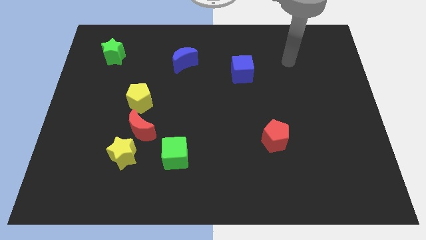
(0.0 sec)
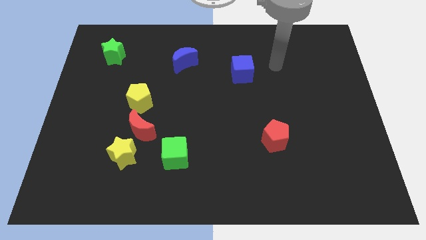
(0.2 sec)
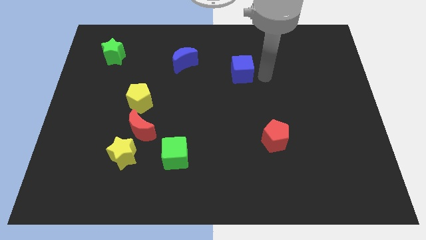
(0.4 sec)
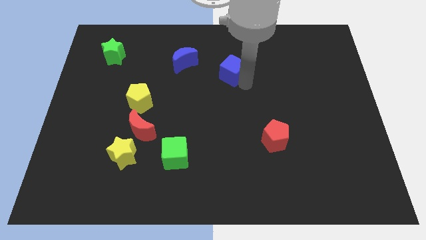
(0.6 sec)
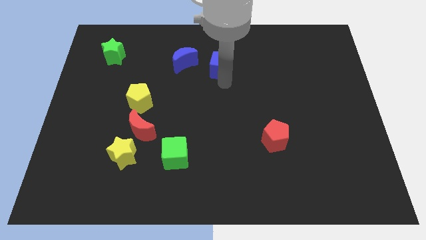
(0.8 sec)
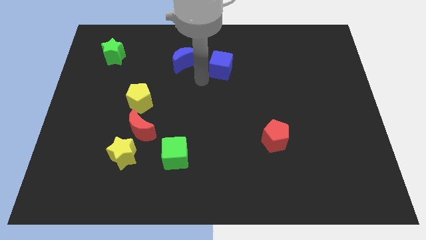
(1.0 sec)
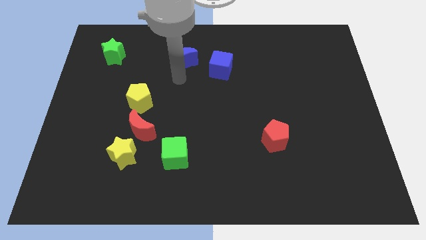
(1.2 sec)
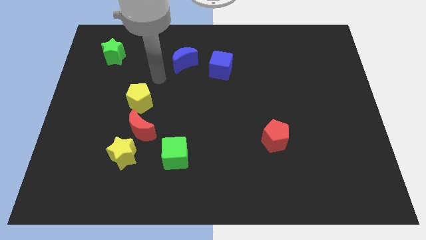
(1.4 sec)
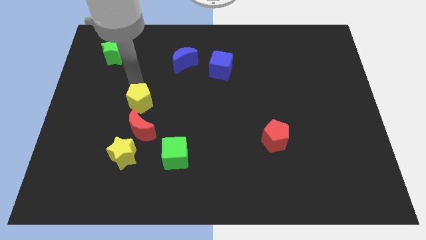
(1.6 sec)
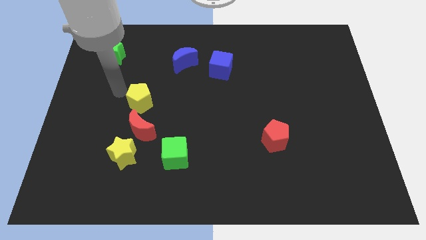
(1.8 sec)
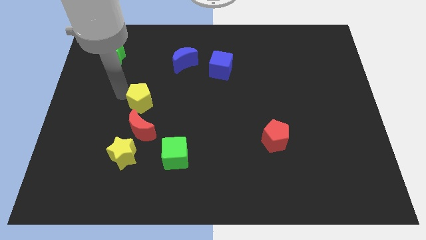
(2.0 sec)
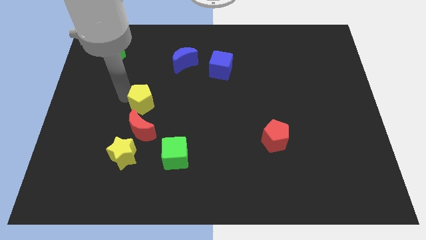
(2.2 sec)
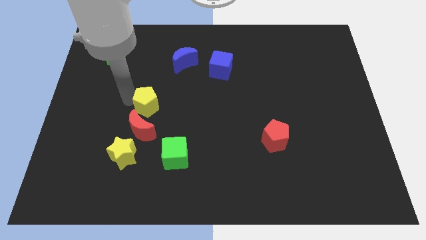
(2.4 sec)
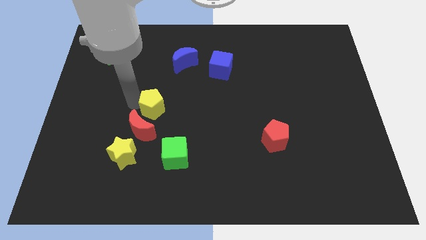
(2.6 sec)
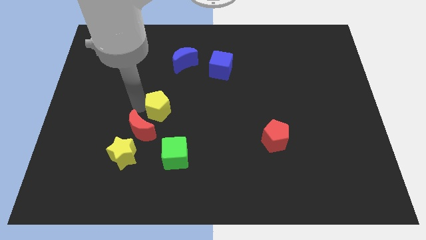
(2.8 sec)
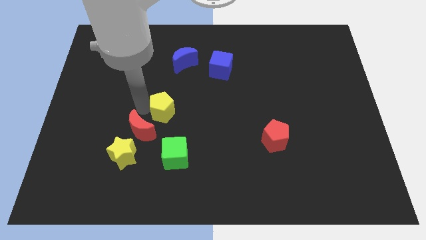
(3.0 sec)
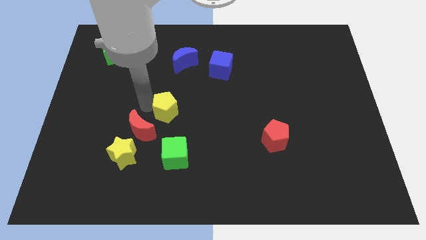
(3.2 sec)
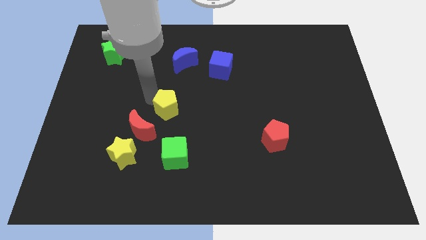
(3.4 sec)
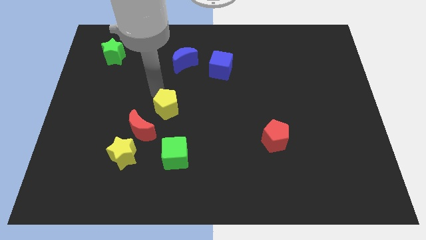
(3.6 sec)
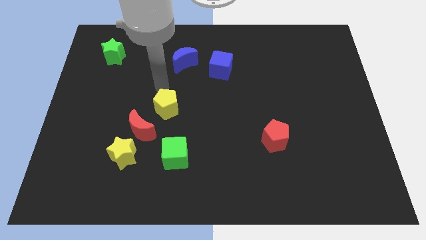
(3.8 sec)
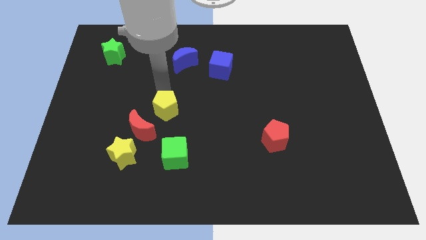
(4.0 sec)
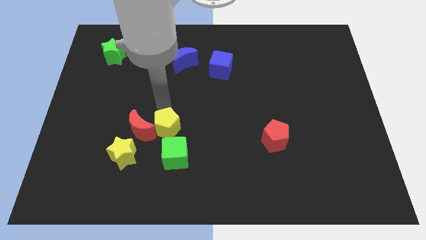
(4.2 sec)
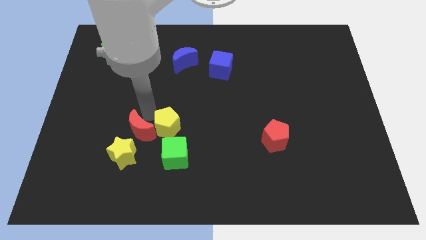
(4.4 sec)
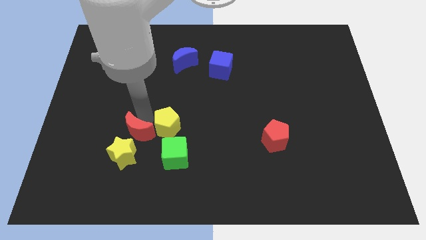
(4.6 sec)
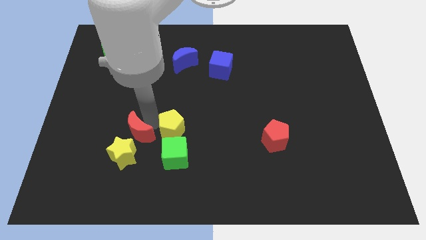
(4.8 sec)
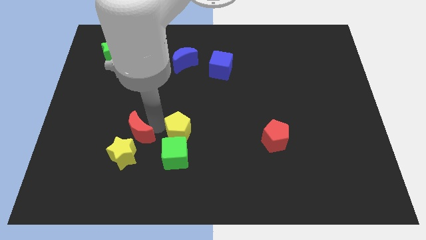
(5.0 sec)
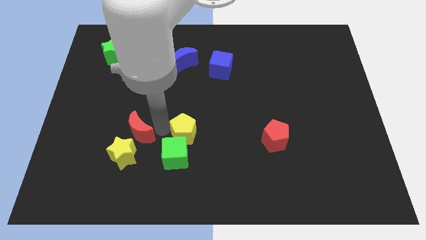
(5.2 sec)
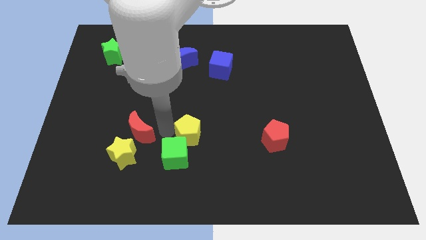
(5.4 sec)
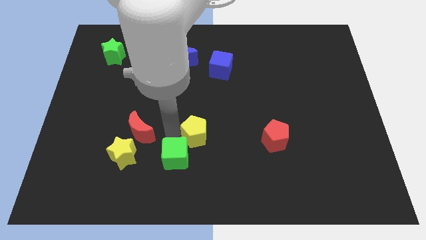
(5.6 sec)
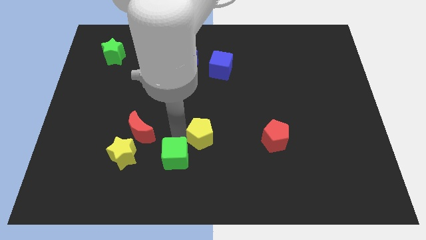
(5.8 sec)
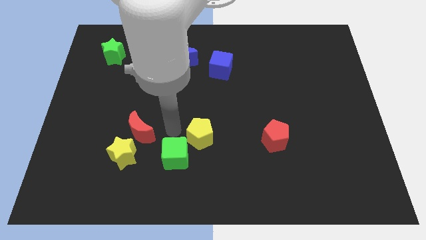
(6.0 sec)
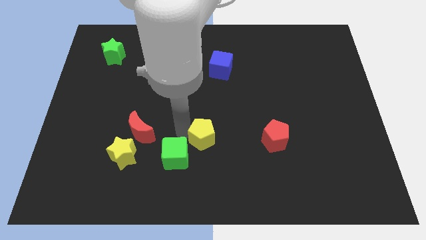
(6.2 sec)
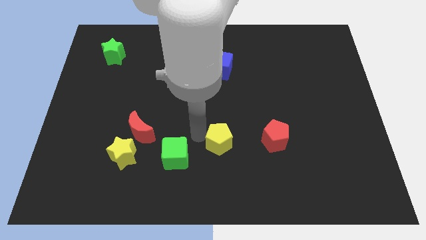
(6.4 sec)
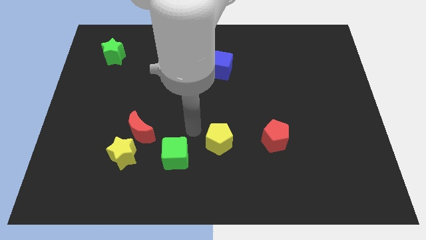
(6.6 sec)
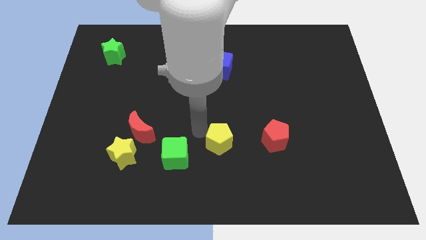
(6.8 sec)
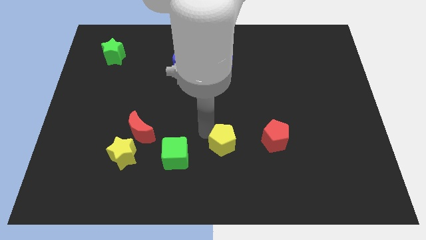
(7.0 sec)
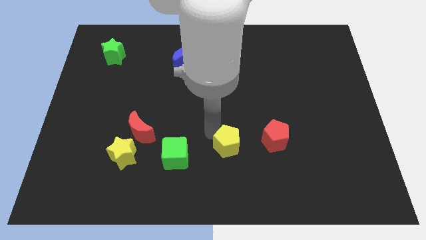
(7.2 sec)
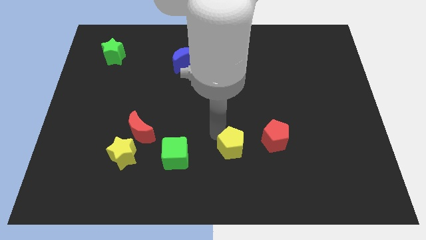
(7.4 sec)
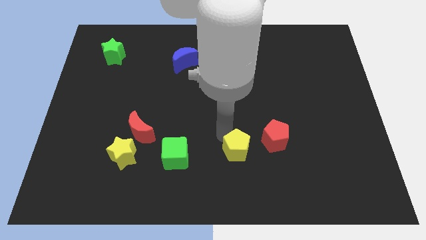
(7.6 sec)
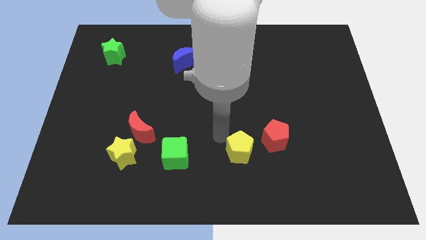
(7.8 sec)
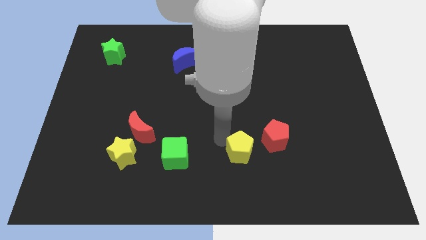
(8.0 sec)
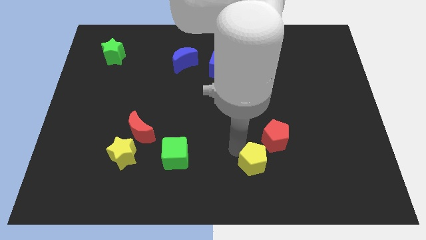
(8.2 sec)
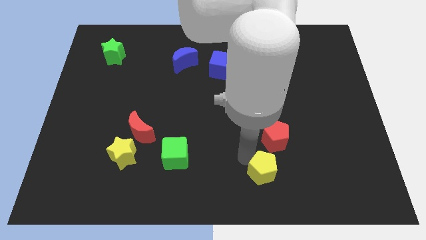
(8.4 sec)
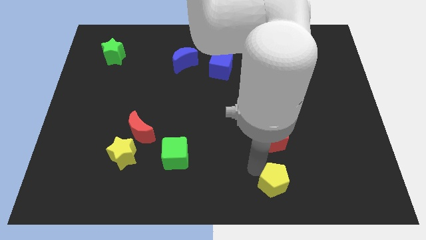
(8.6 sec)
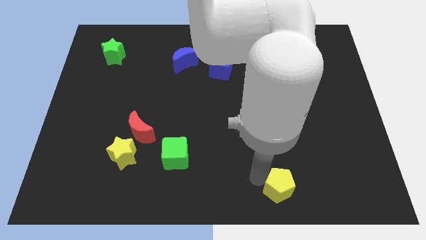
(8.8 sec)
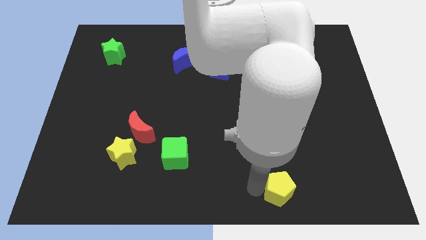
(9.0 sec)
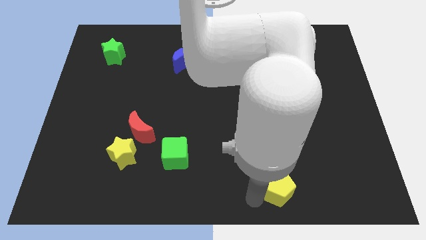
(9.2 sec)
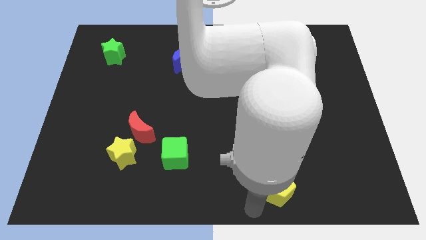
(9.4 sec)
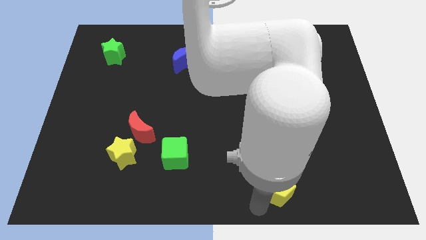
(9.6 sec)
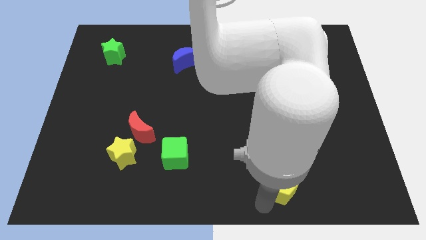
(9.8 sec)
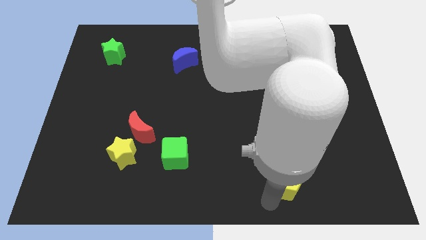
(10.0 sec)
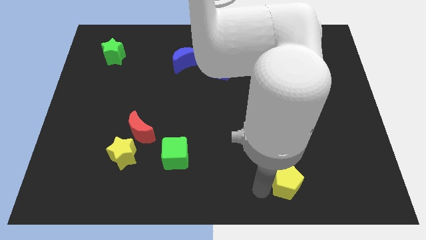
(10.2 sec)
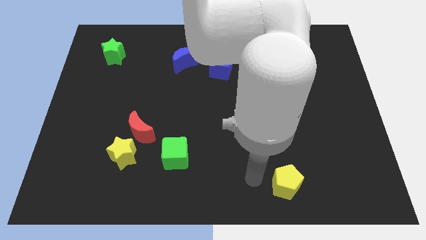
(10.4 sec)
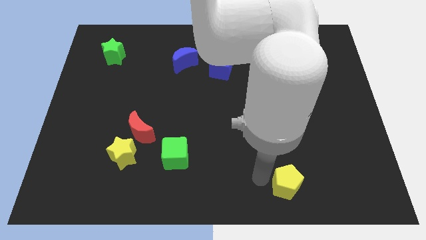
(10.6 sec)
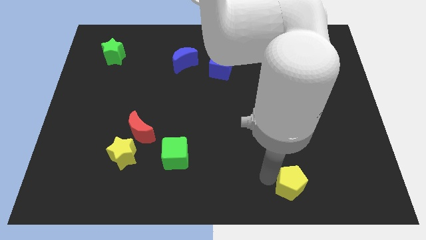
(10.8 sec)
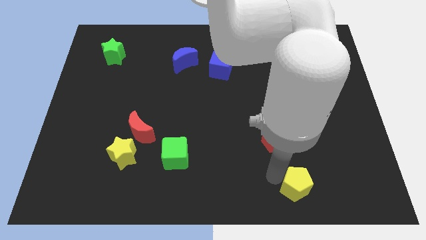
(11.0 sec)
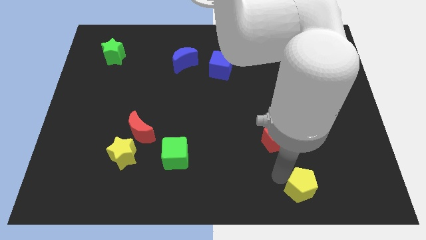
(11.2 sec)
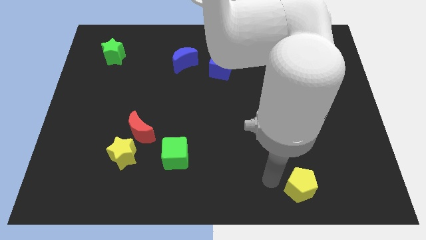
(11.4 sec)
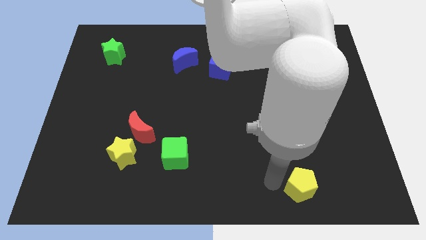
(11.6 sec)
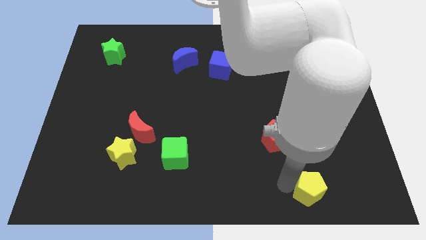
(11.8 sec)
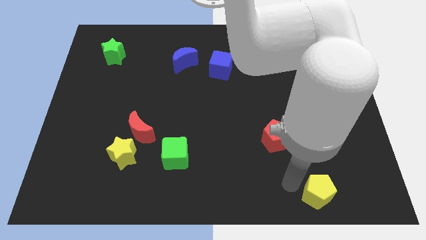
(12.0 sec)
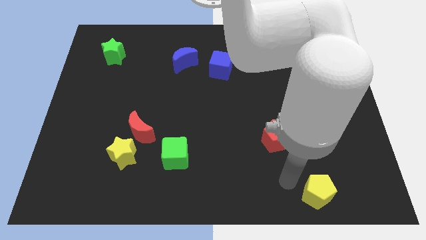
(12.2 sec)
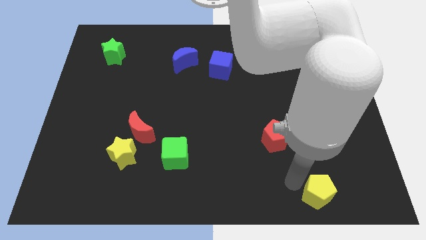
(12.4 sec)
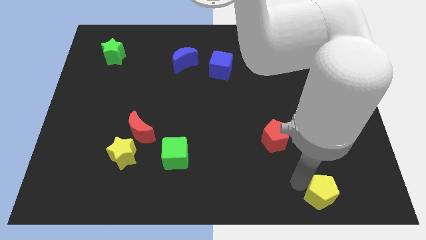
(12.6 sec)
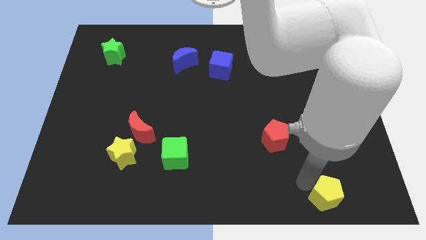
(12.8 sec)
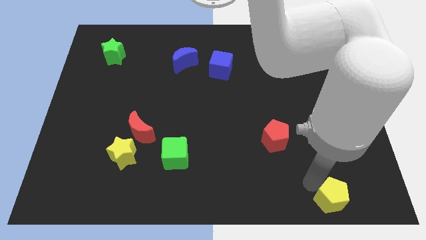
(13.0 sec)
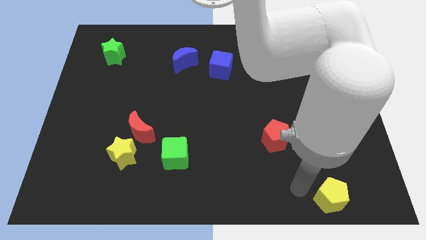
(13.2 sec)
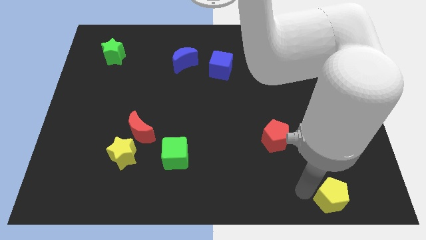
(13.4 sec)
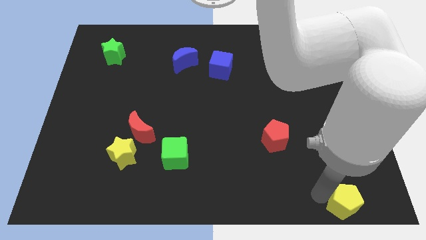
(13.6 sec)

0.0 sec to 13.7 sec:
push the yellow pentagon to the bottom right corner

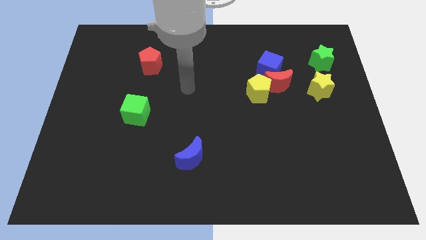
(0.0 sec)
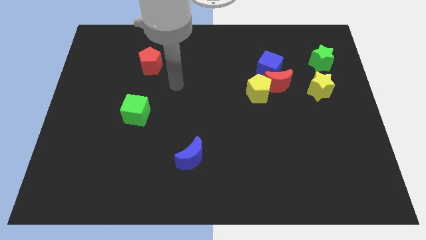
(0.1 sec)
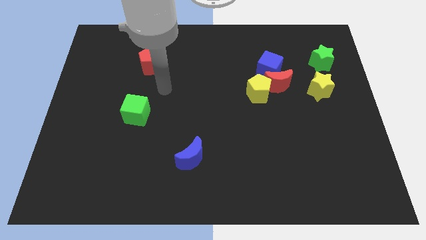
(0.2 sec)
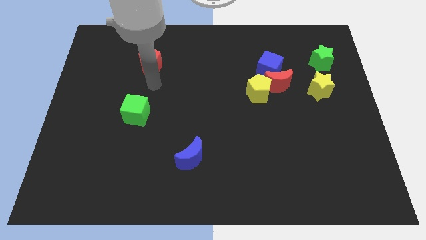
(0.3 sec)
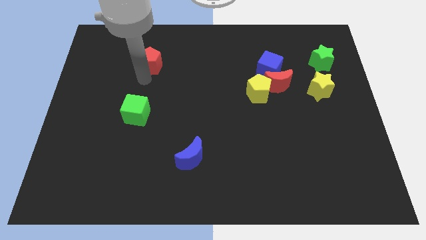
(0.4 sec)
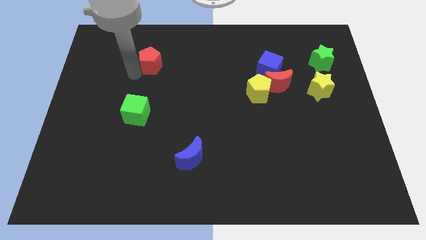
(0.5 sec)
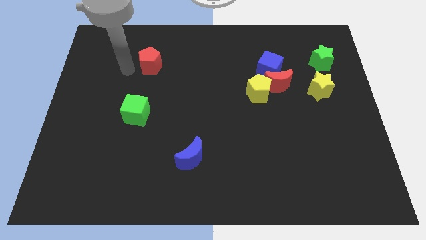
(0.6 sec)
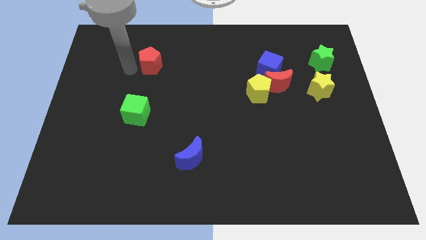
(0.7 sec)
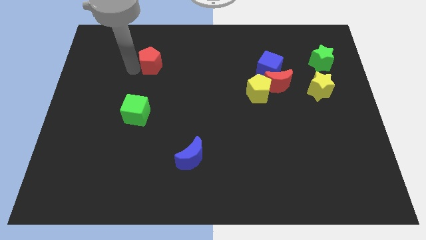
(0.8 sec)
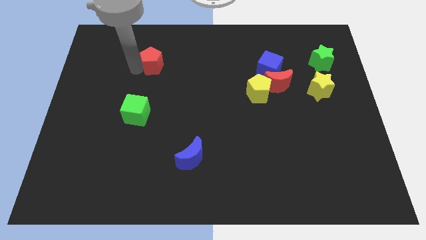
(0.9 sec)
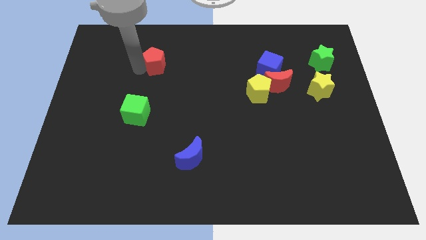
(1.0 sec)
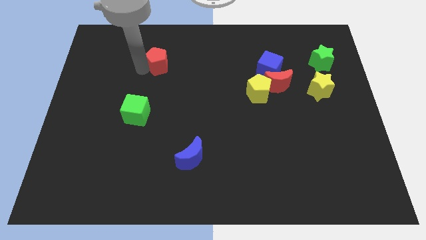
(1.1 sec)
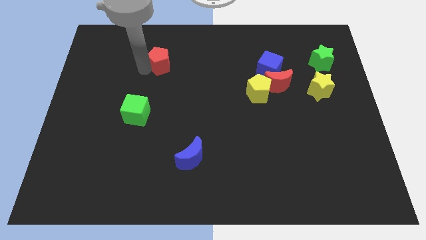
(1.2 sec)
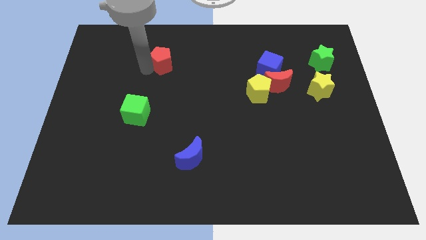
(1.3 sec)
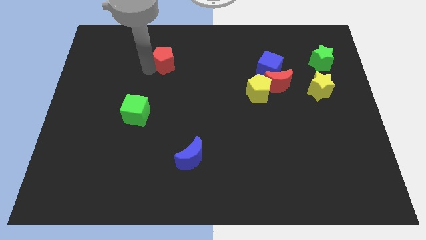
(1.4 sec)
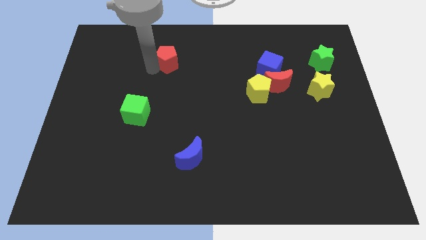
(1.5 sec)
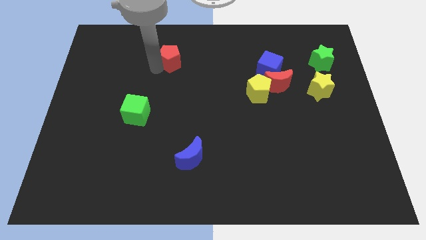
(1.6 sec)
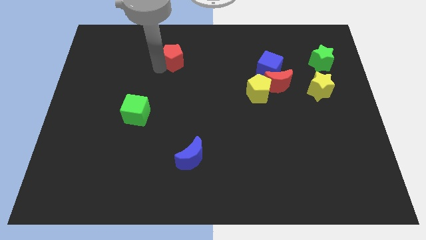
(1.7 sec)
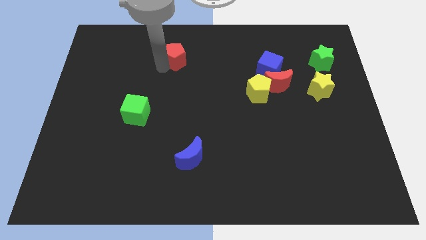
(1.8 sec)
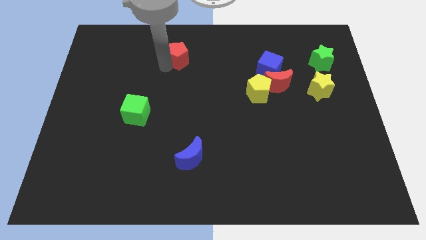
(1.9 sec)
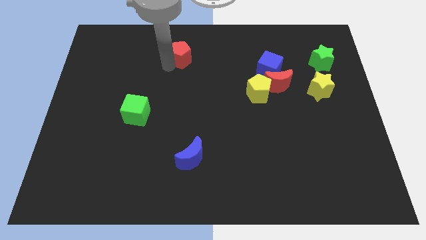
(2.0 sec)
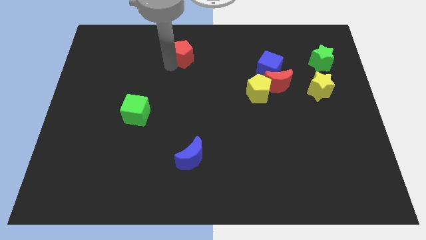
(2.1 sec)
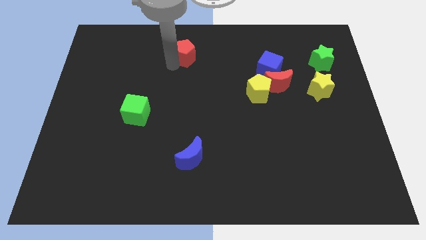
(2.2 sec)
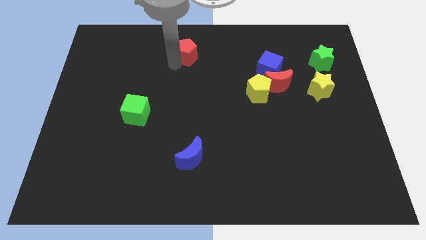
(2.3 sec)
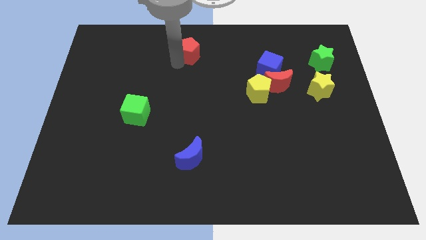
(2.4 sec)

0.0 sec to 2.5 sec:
slide the red pentagon to the towards your base
